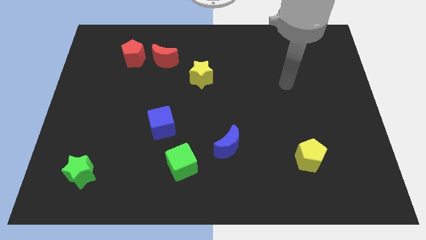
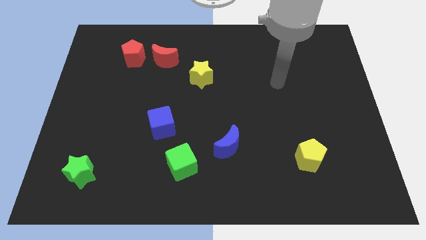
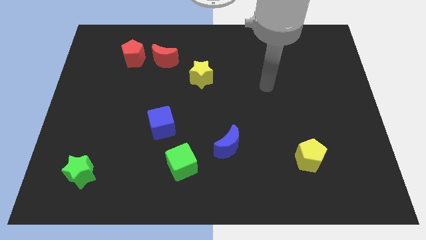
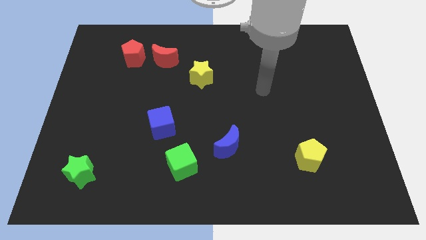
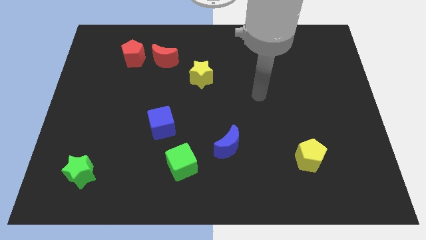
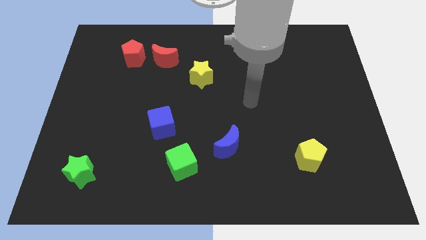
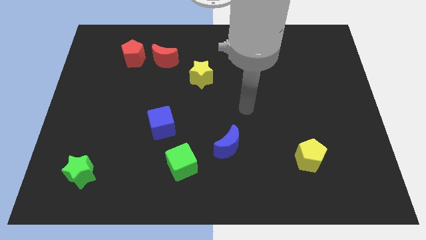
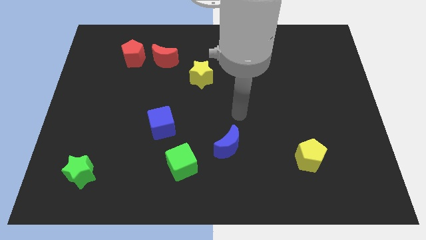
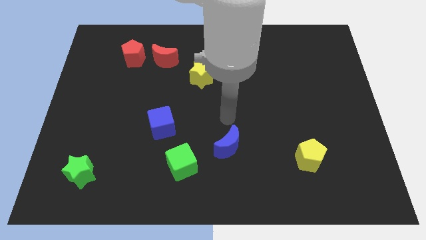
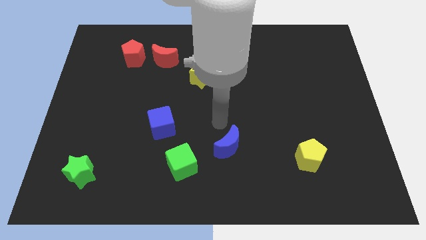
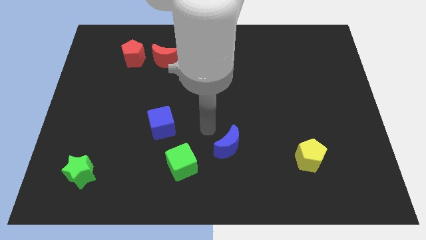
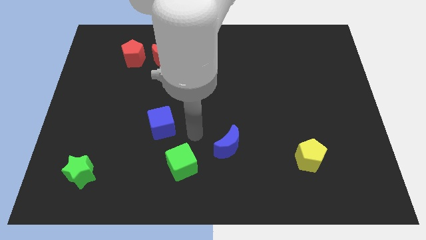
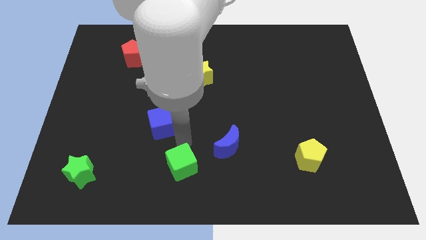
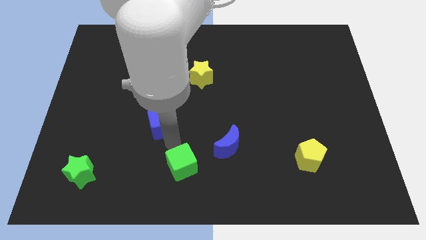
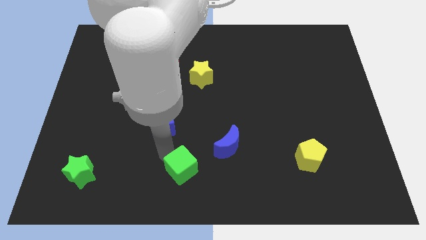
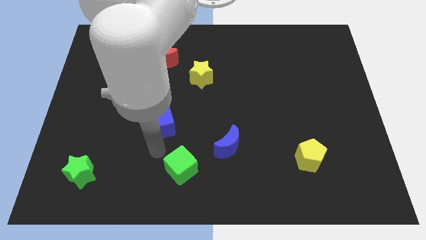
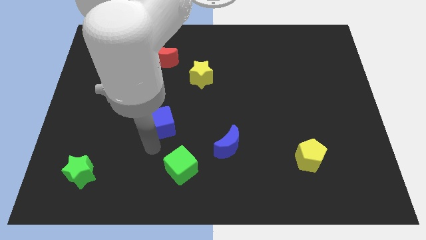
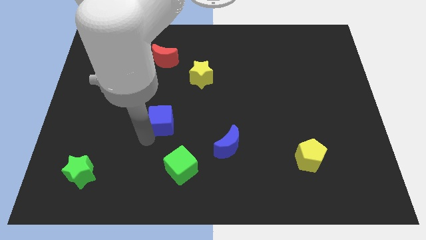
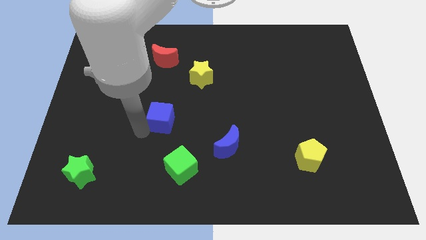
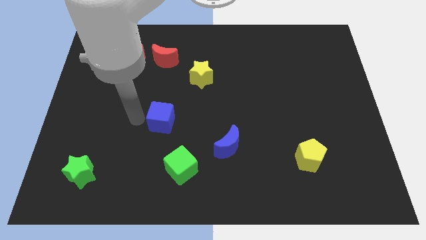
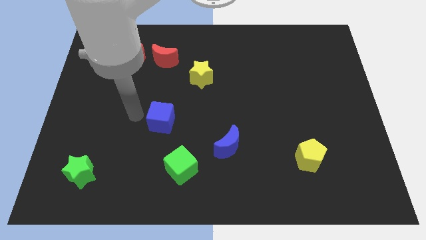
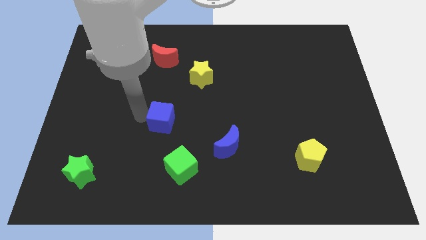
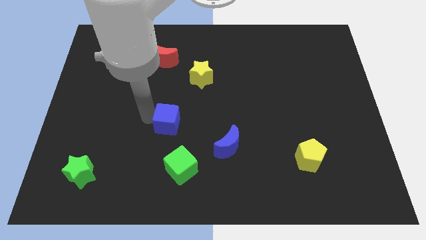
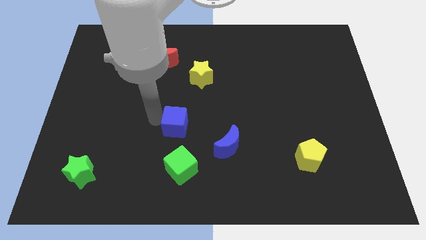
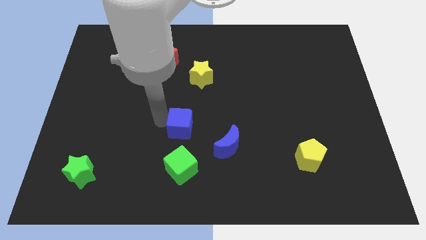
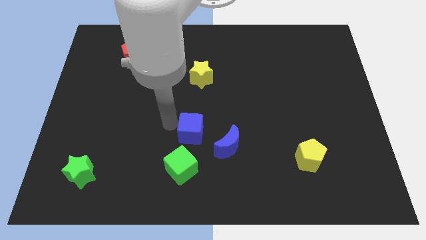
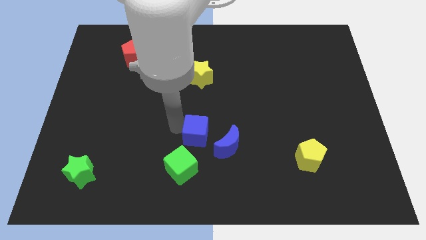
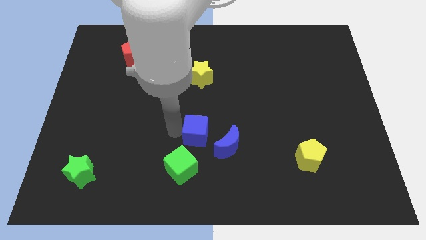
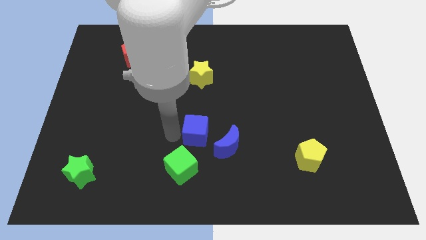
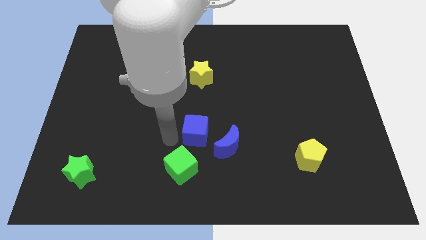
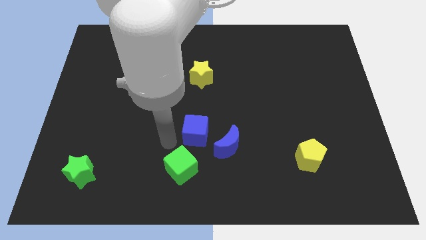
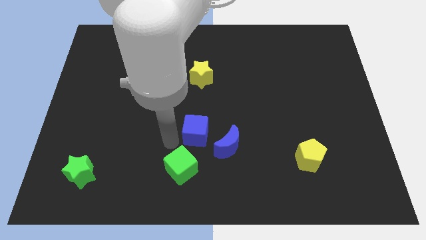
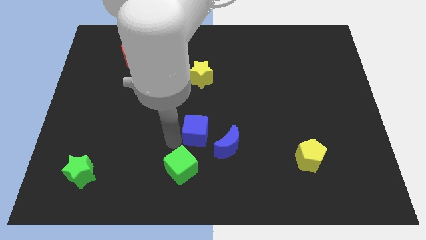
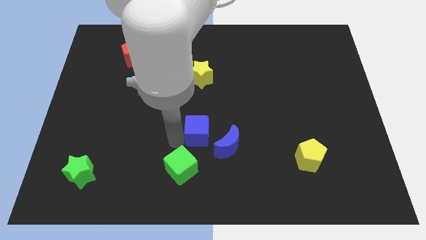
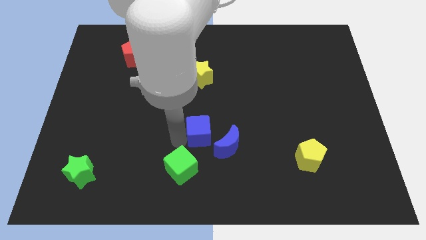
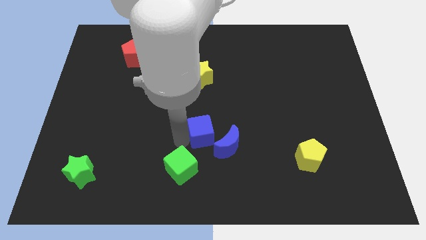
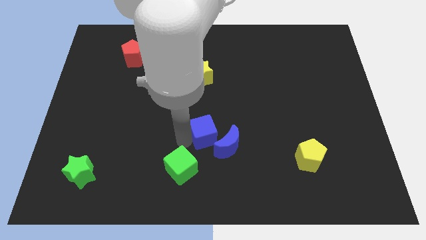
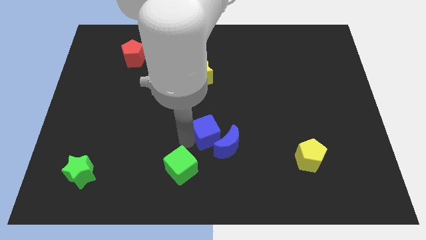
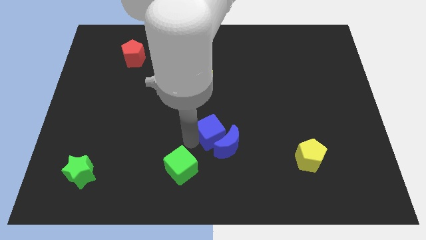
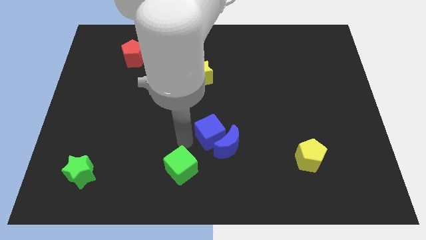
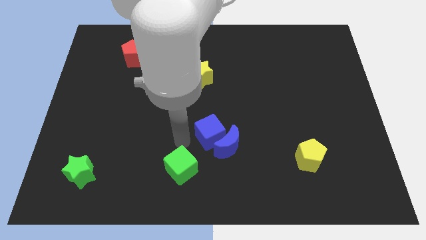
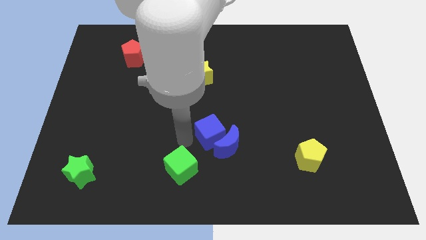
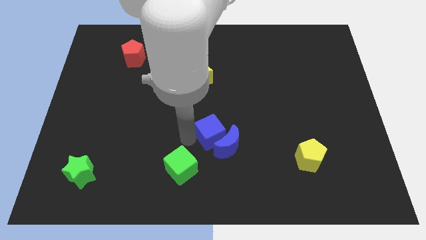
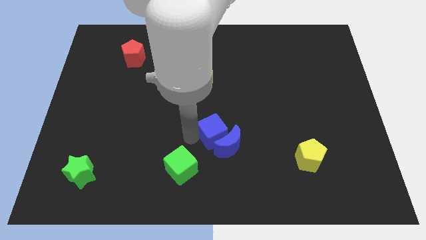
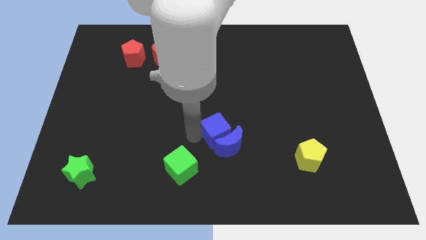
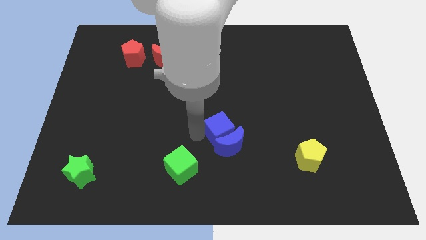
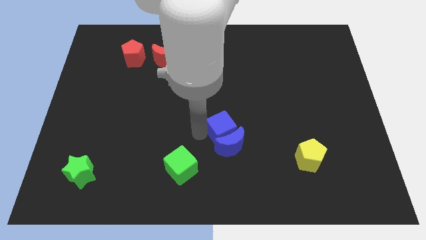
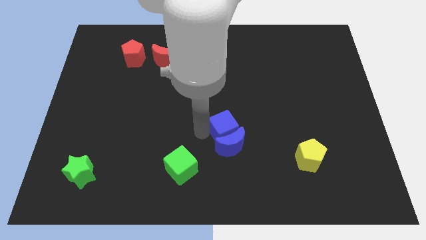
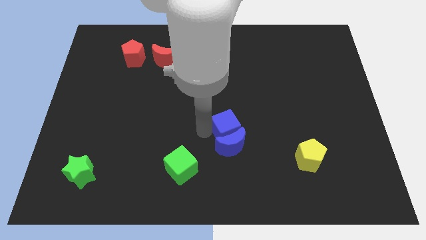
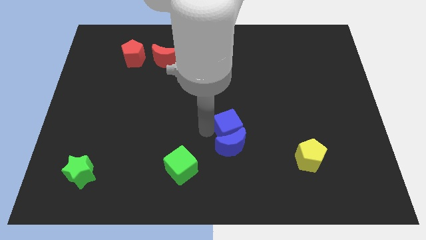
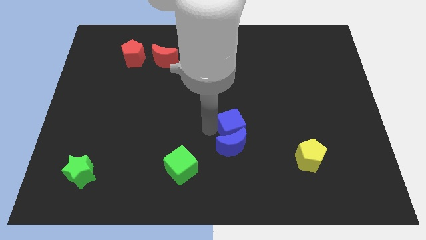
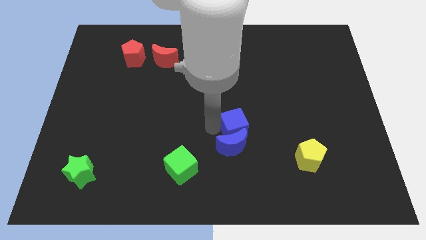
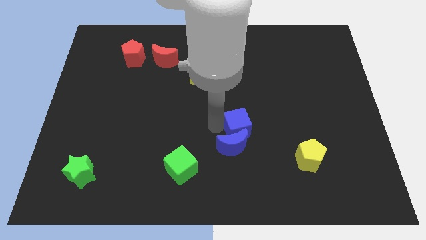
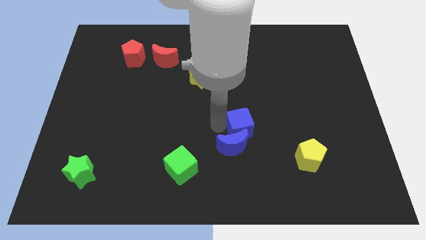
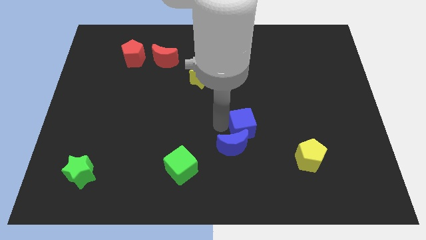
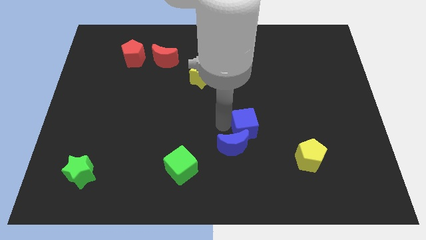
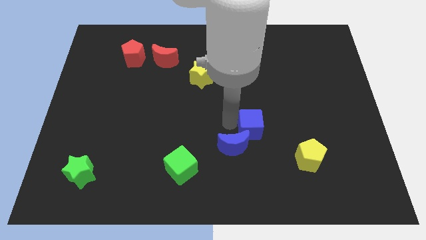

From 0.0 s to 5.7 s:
slide the blue cube right

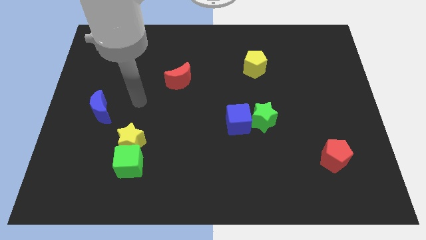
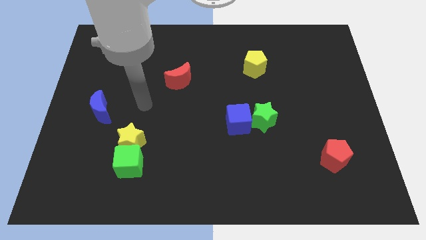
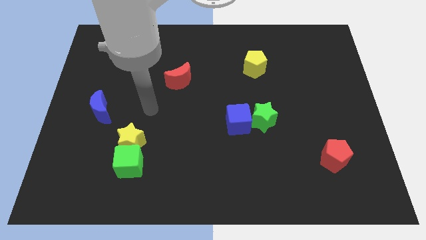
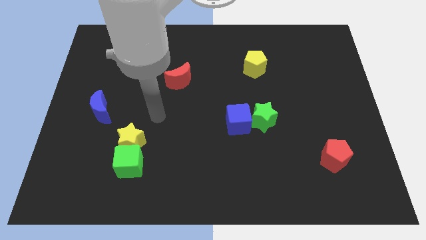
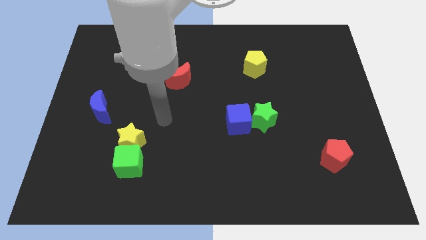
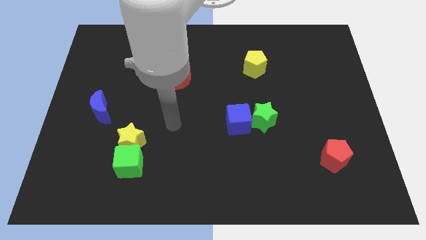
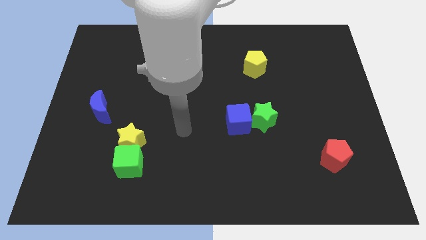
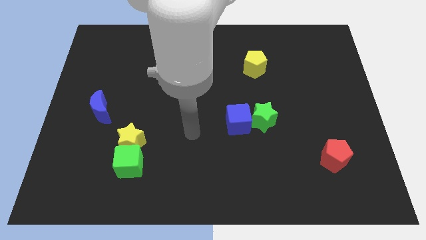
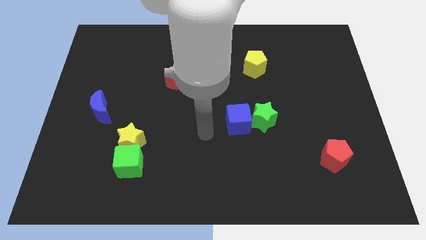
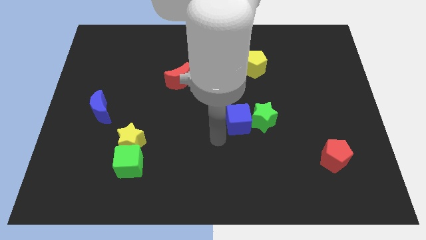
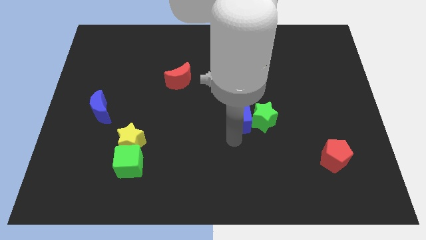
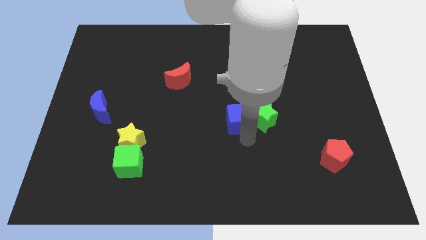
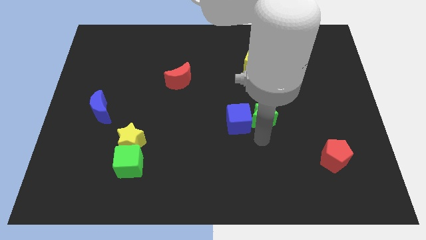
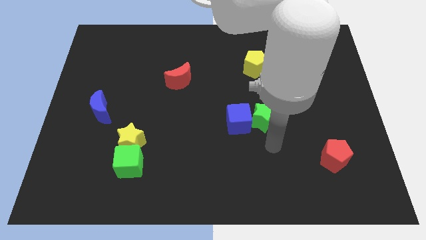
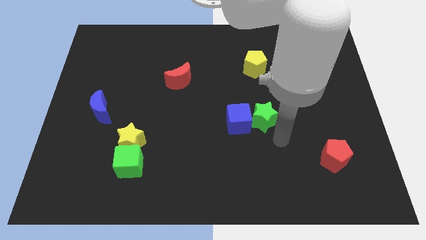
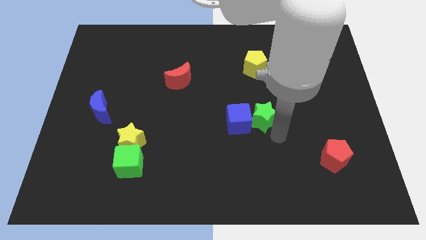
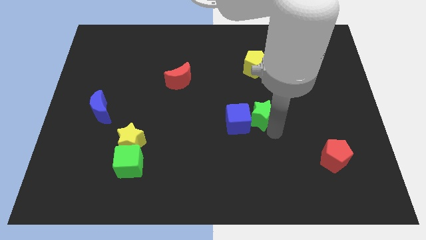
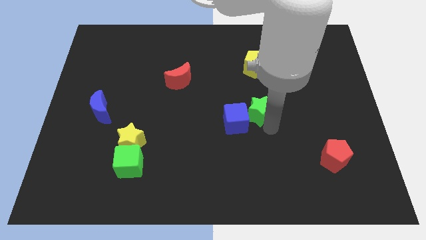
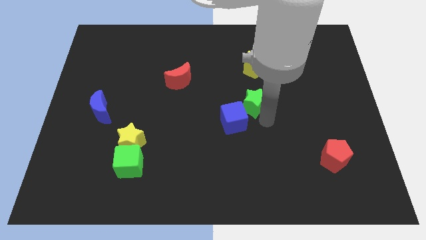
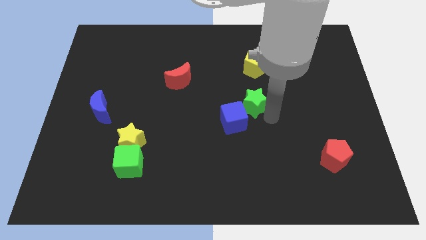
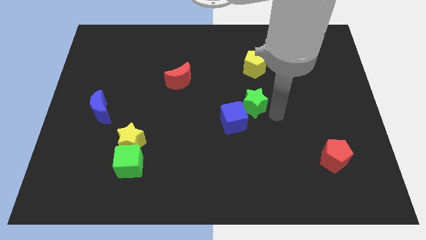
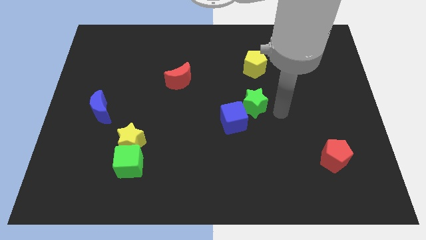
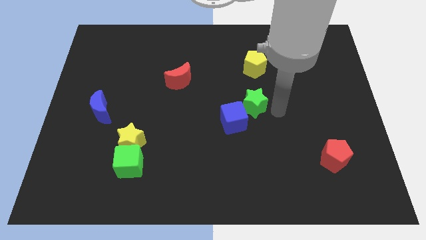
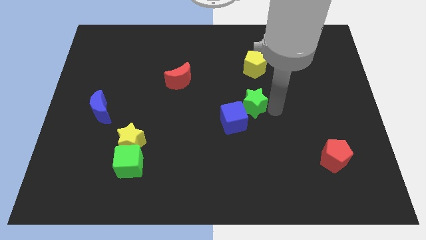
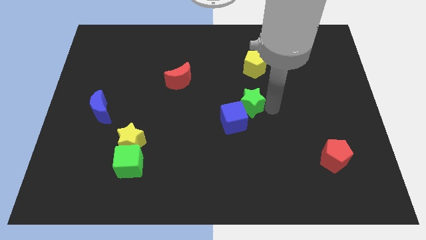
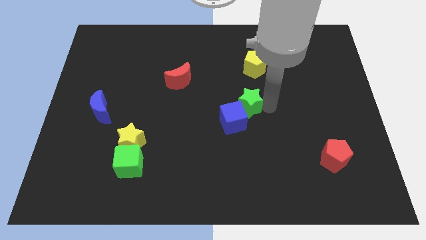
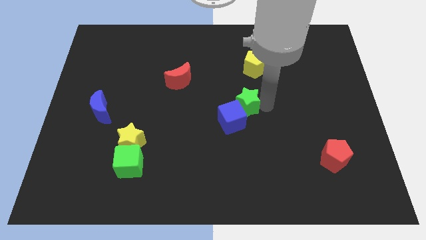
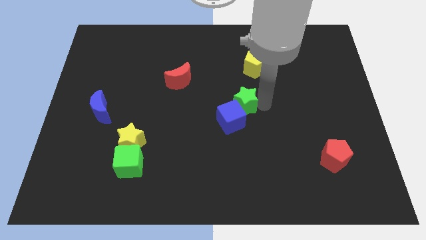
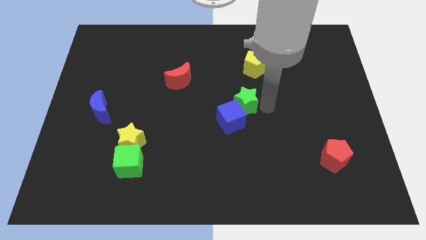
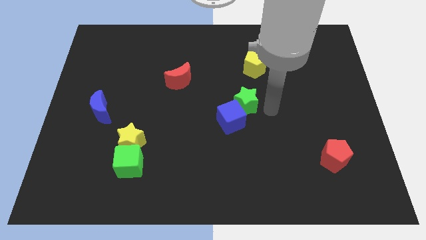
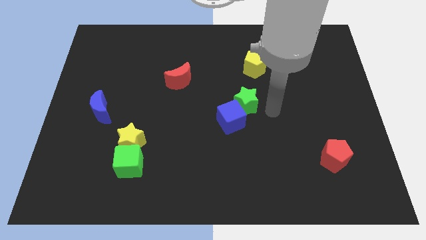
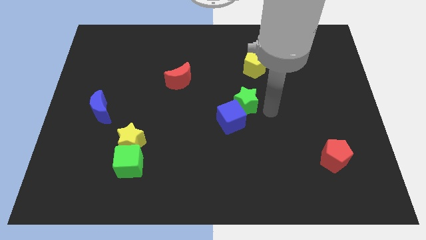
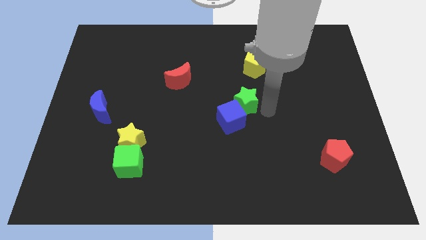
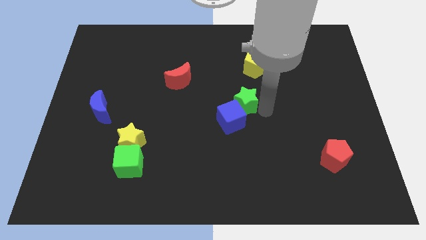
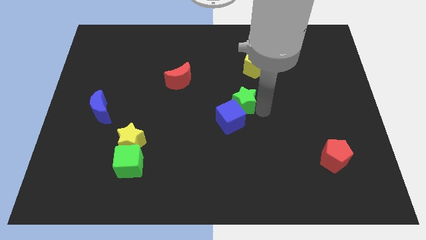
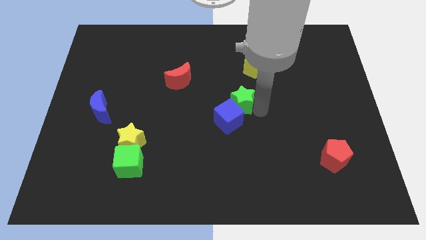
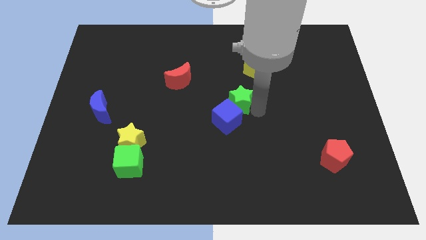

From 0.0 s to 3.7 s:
move the green star a bit upwards and to the left diagonally
